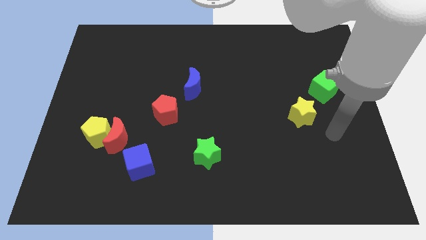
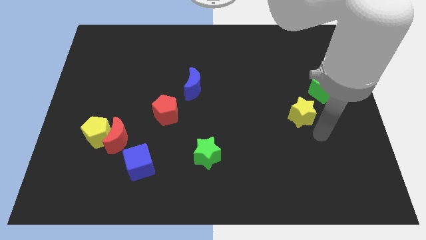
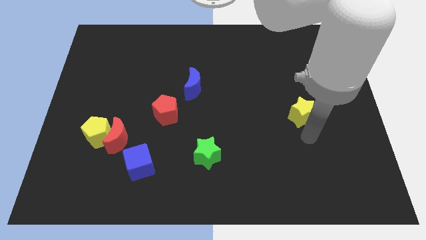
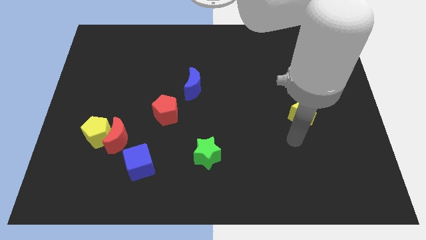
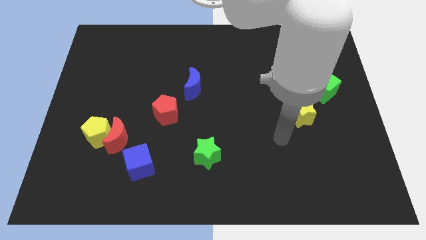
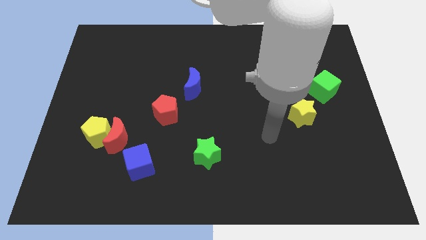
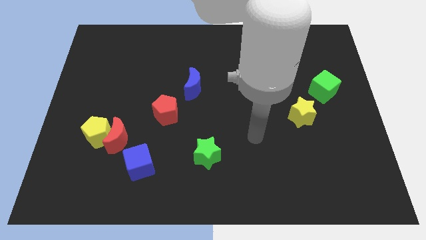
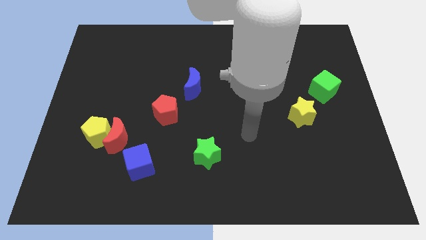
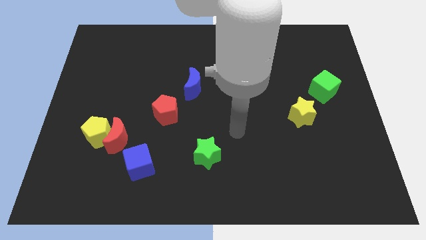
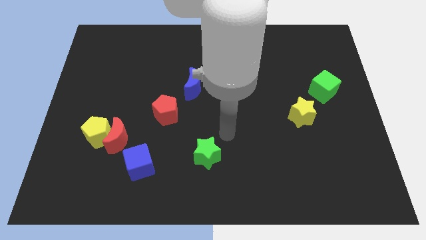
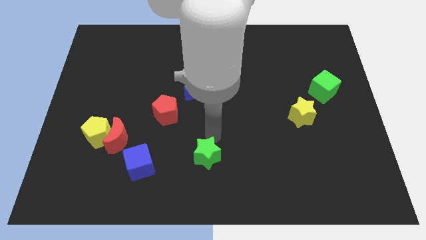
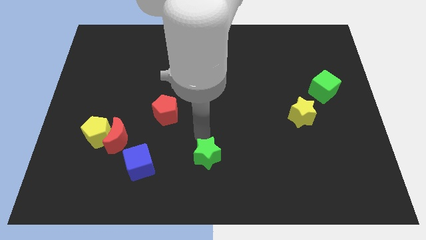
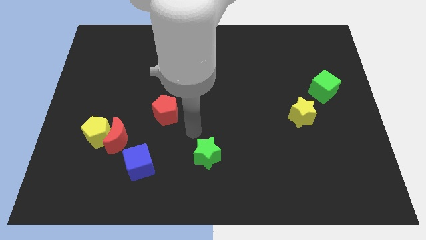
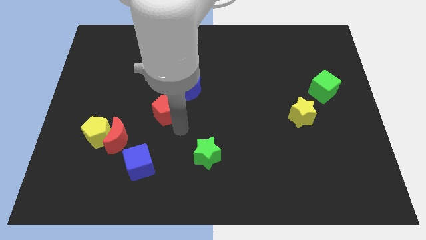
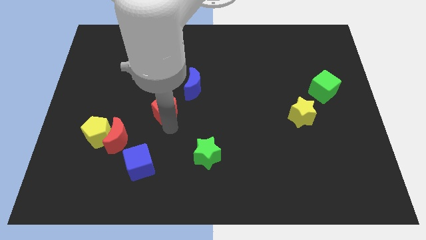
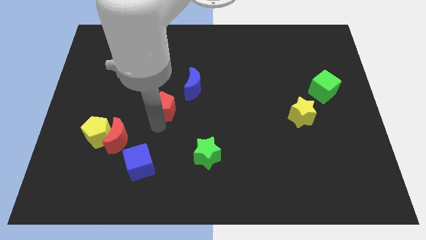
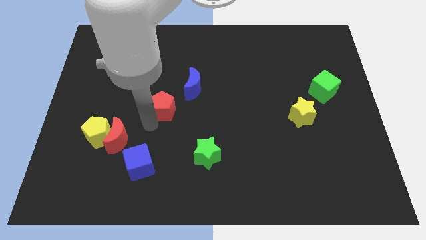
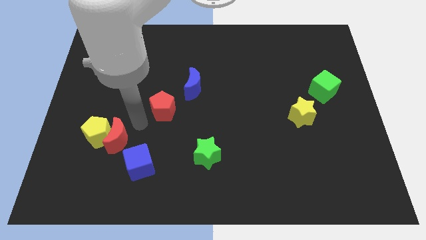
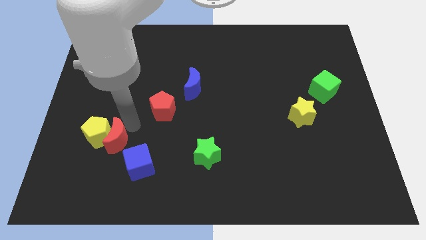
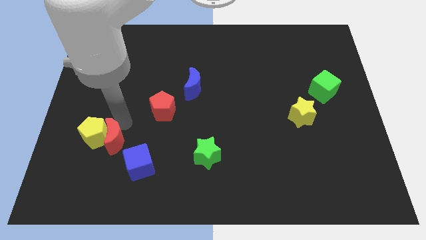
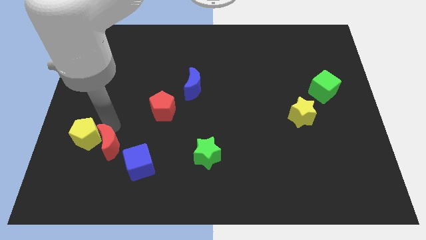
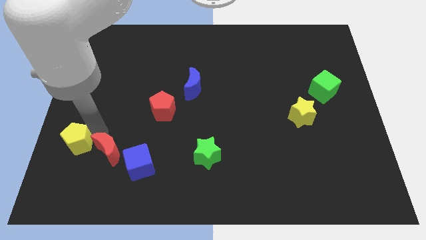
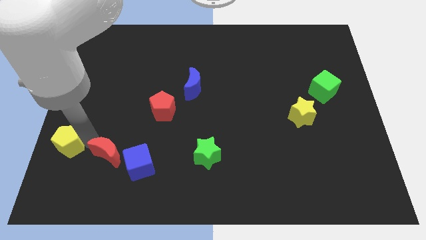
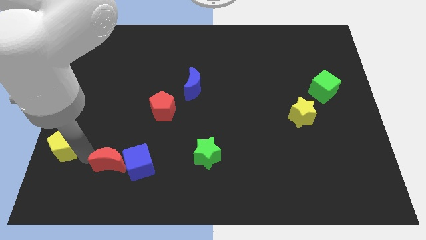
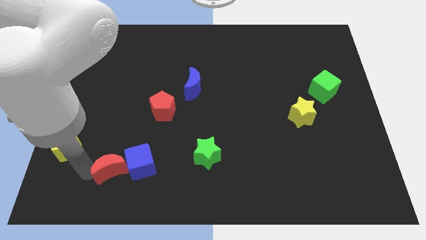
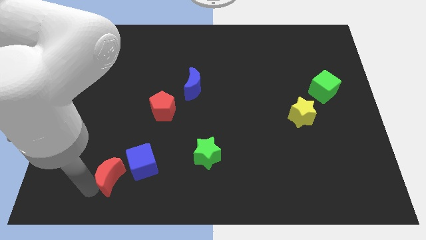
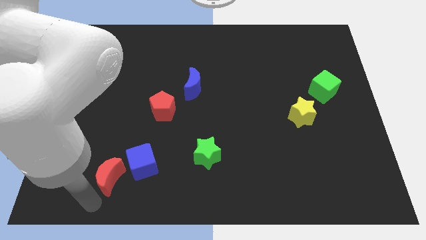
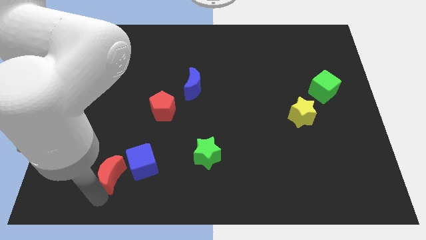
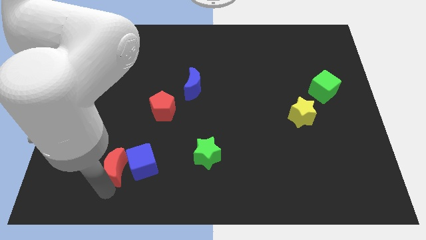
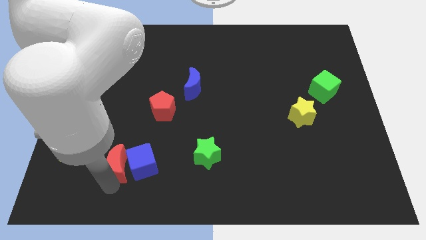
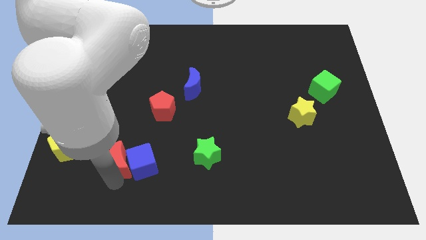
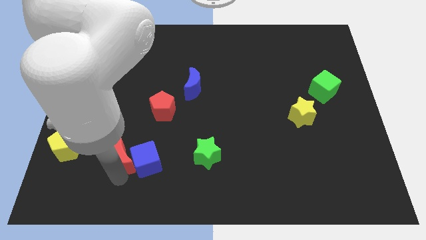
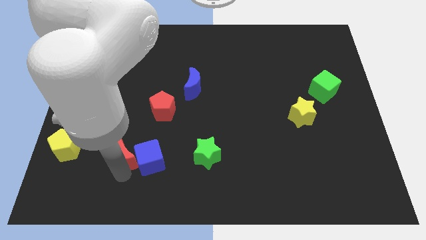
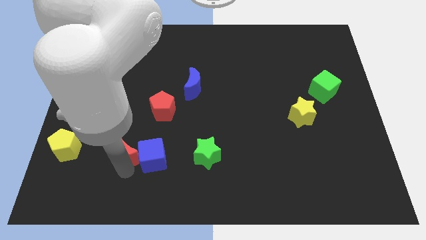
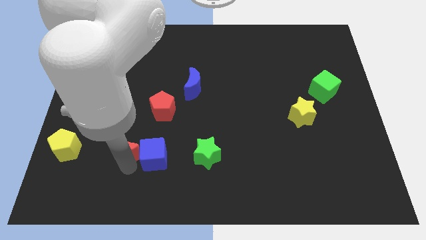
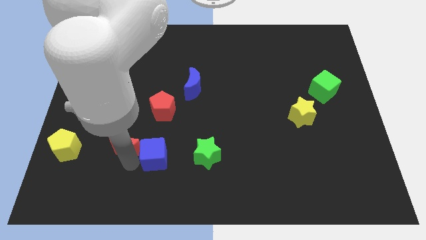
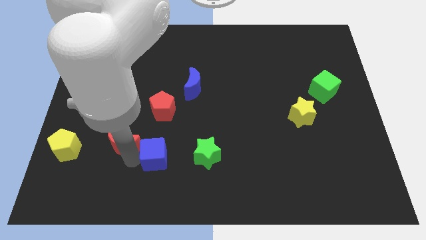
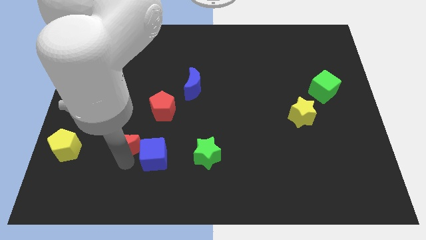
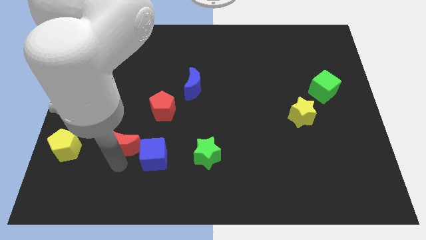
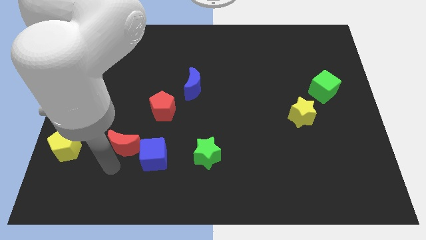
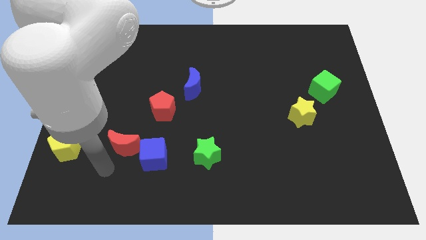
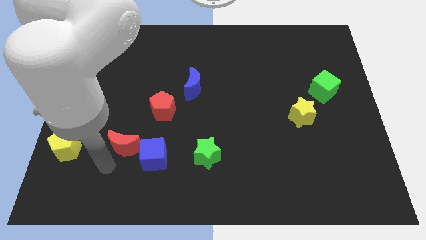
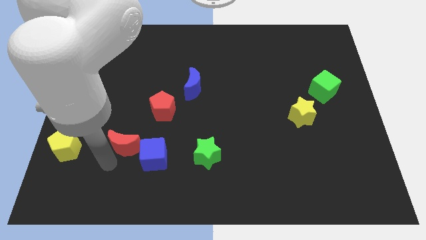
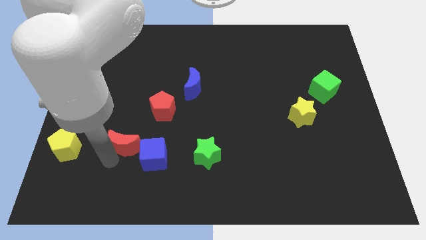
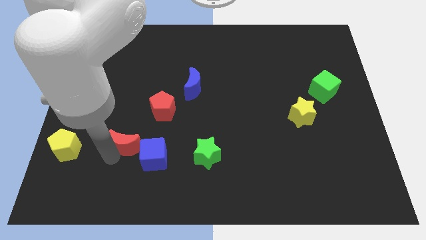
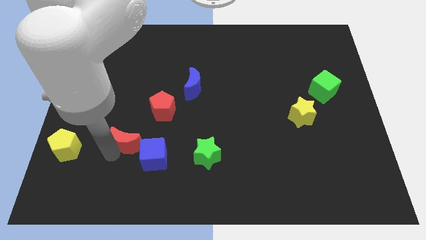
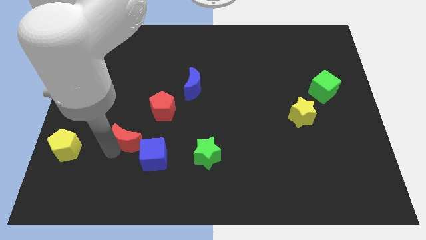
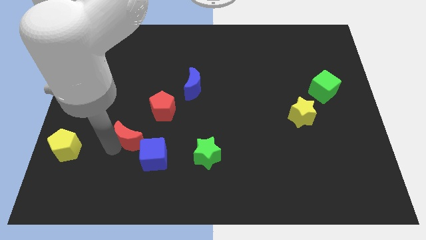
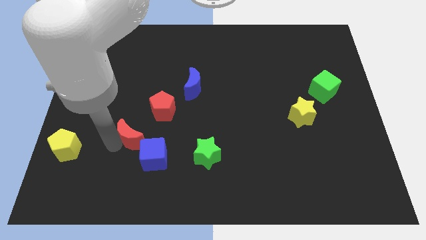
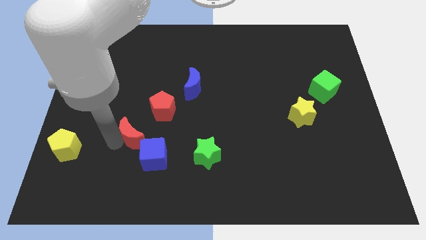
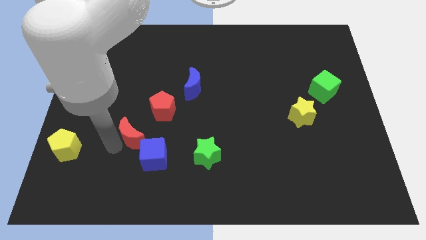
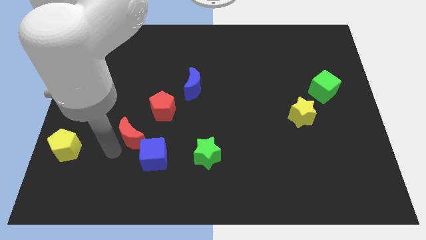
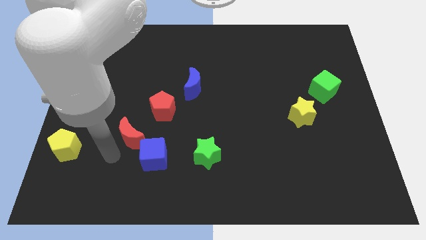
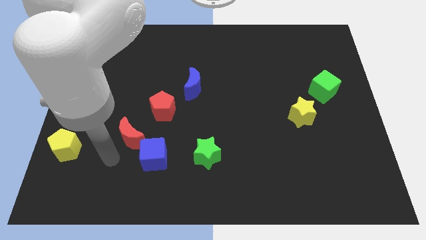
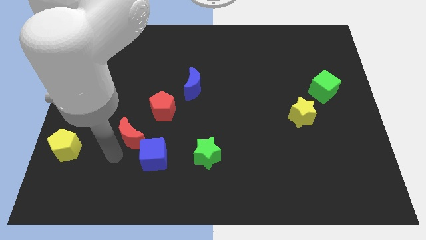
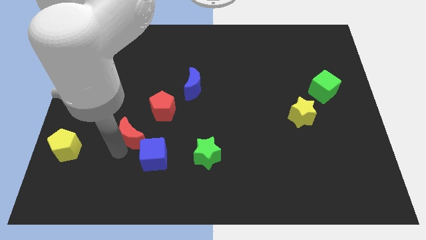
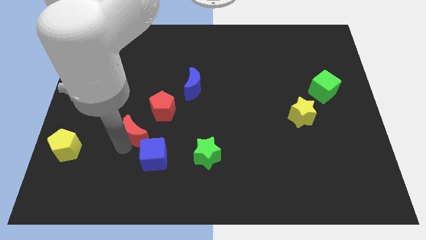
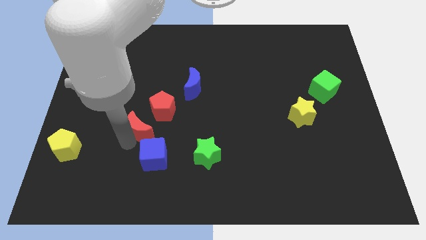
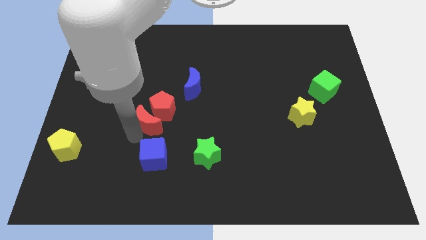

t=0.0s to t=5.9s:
push the red moon next to the red pentagon

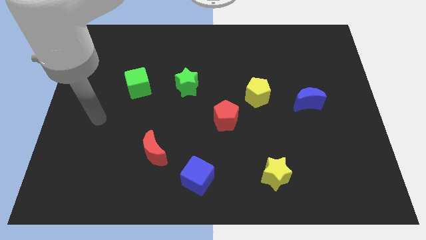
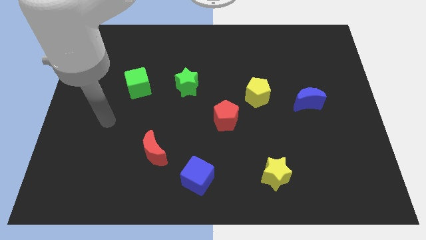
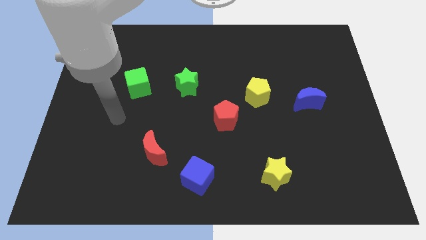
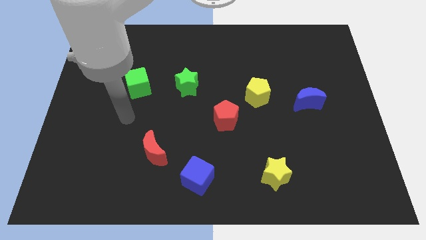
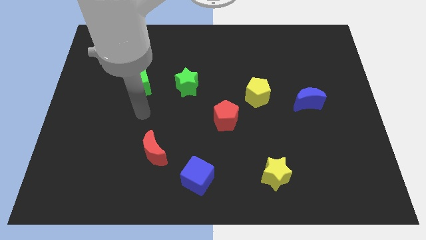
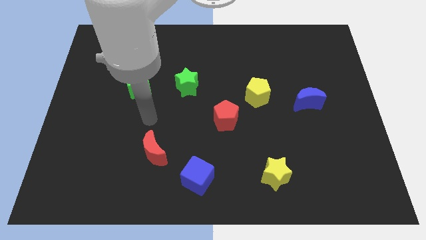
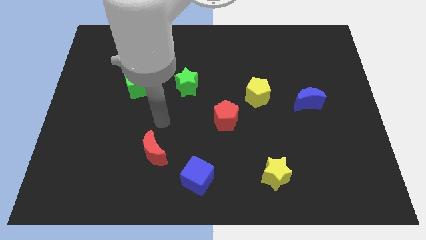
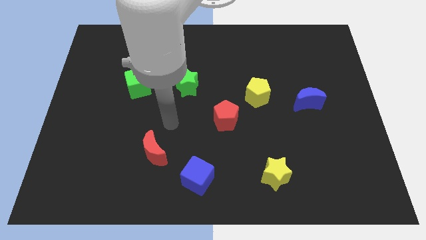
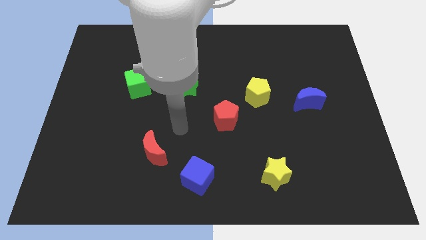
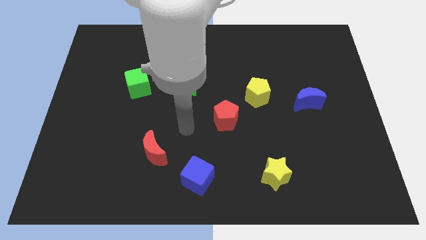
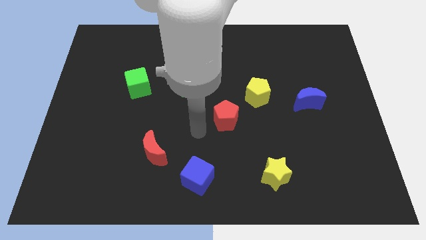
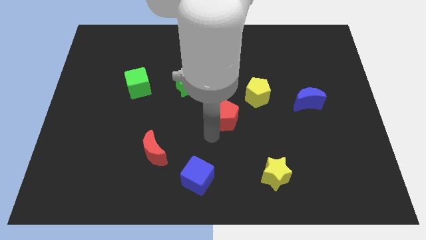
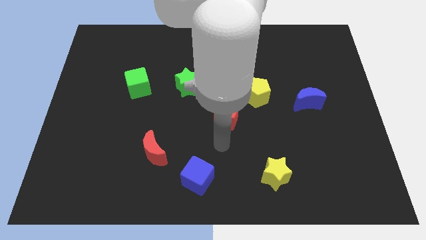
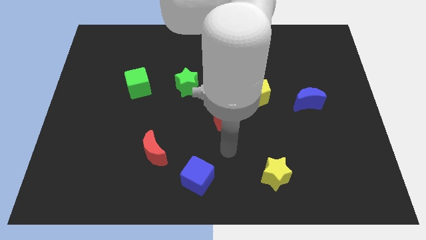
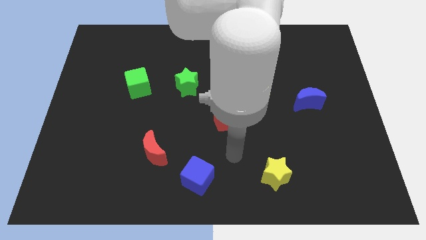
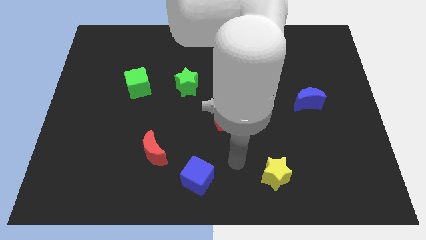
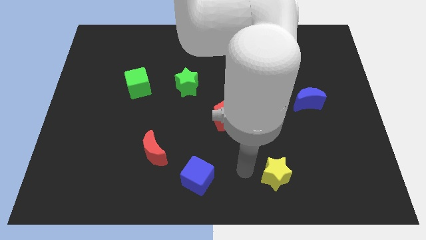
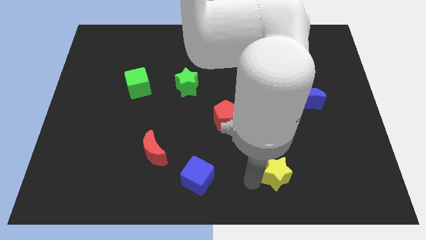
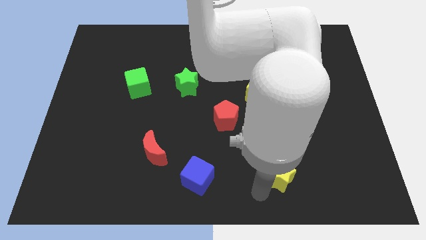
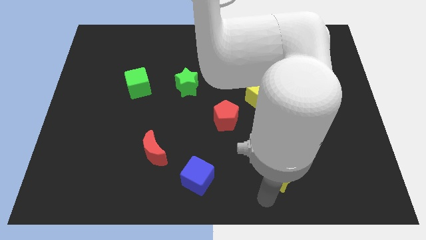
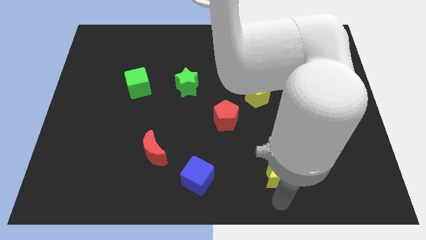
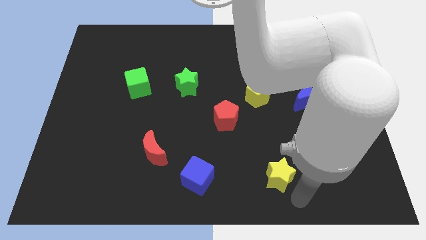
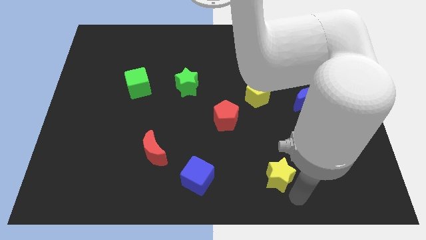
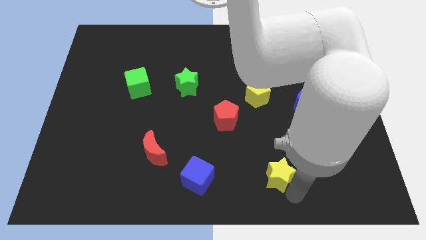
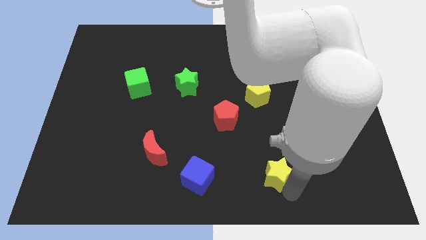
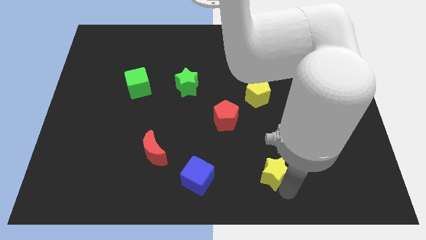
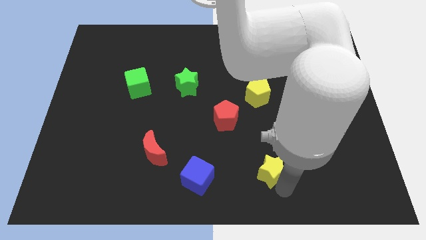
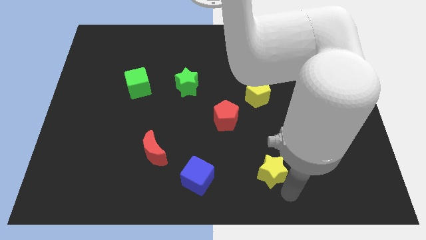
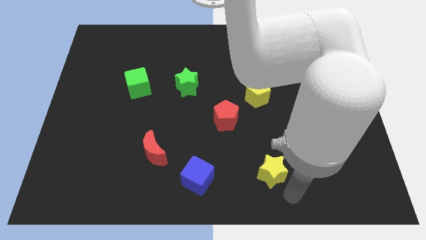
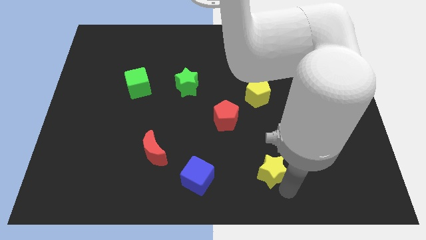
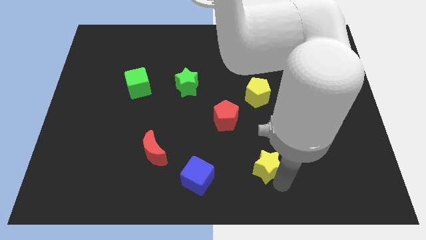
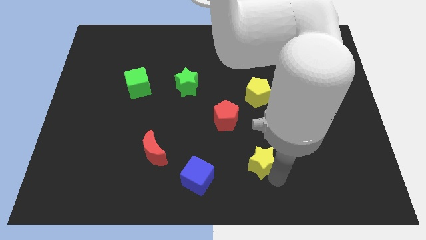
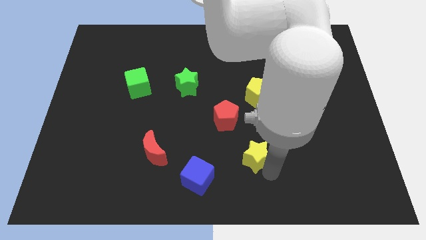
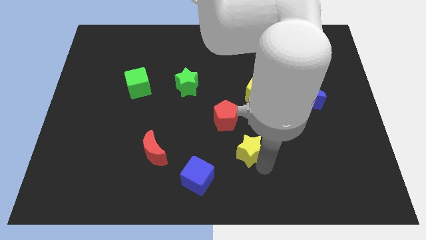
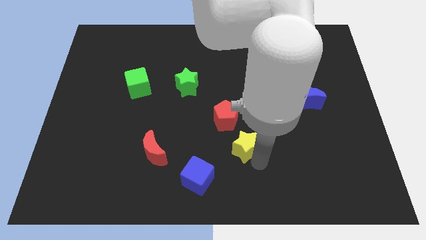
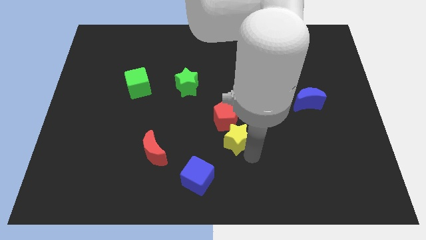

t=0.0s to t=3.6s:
push the yellow star to the red pentagon
